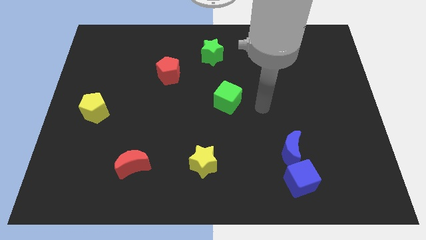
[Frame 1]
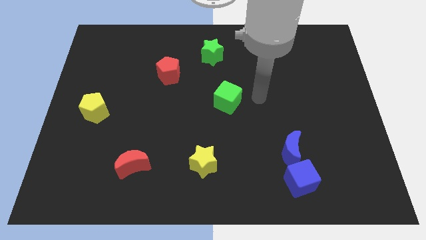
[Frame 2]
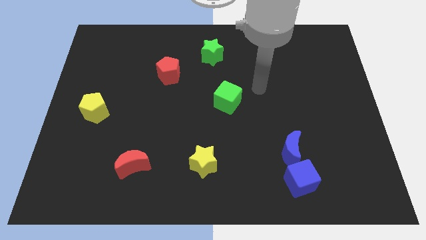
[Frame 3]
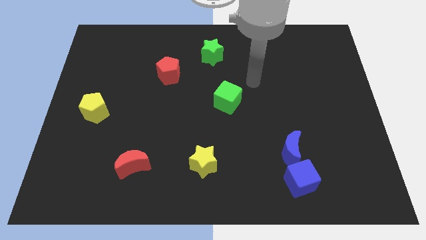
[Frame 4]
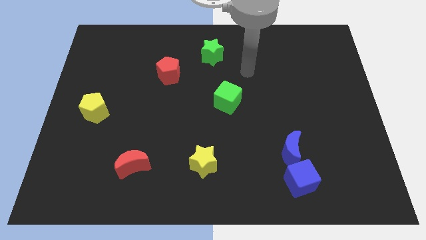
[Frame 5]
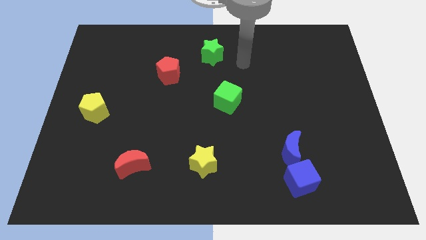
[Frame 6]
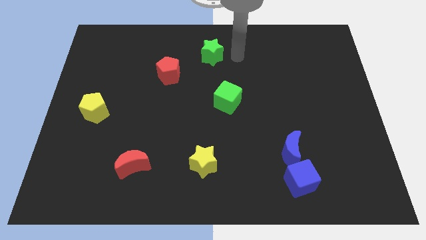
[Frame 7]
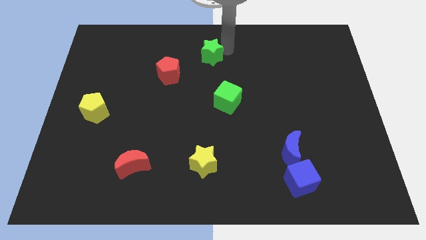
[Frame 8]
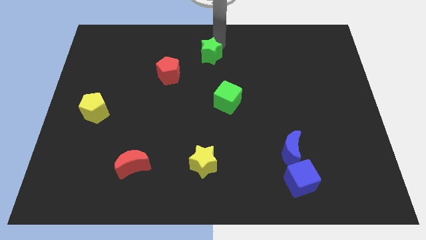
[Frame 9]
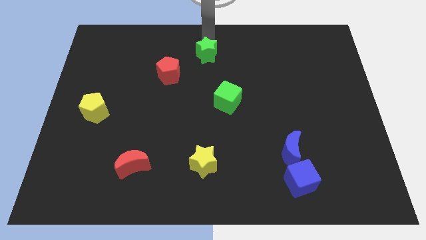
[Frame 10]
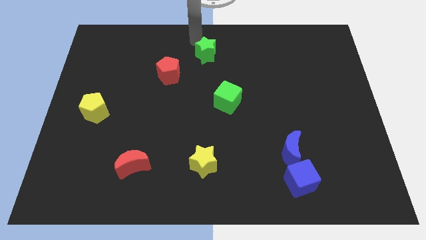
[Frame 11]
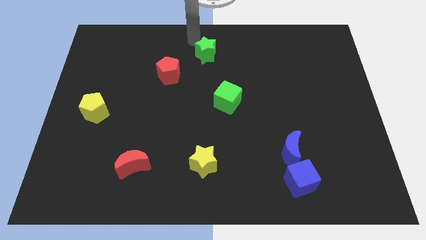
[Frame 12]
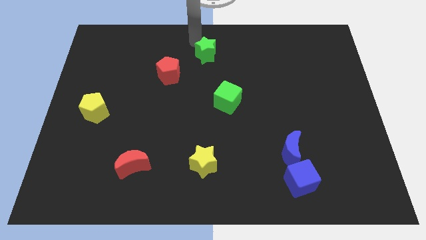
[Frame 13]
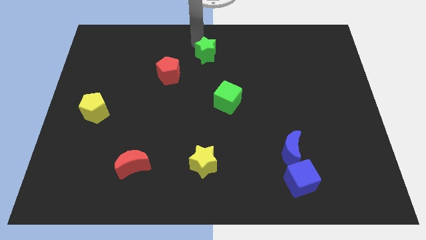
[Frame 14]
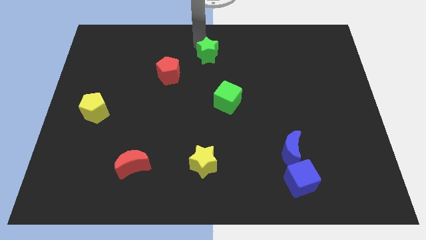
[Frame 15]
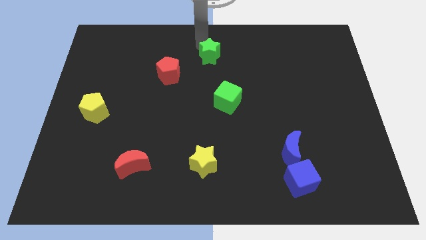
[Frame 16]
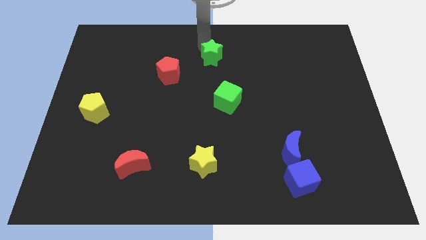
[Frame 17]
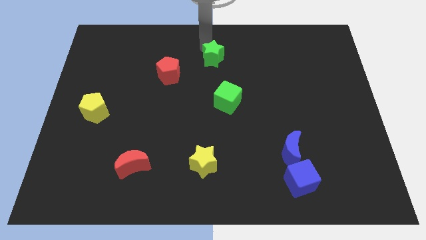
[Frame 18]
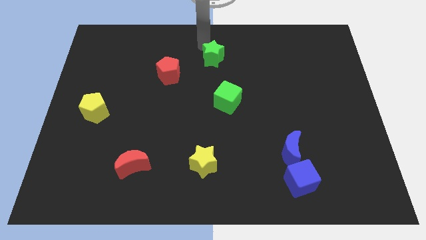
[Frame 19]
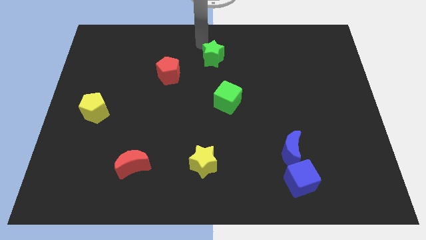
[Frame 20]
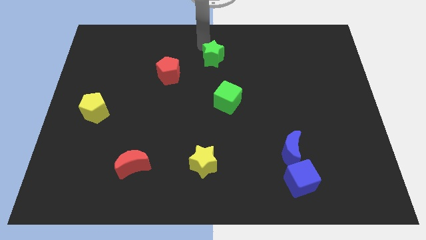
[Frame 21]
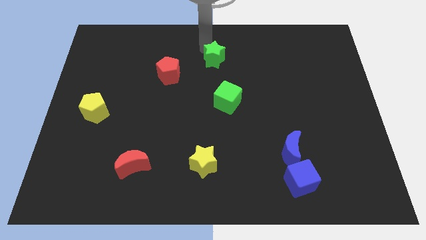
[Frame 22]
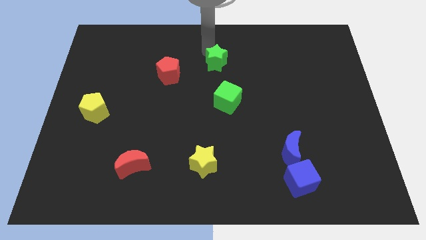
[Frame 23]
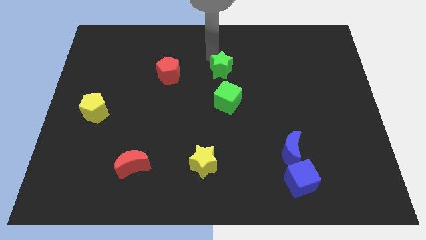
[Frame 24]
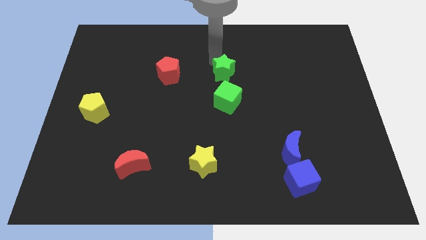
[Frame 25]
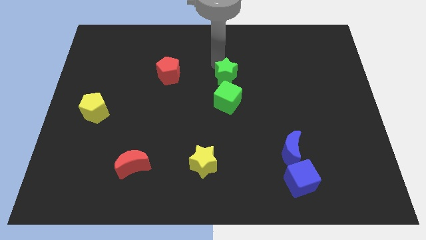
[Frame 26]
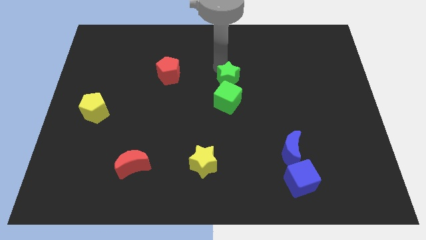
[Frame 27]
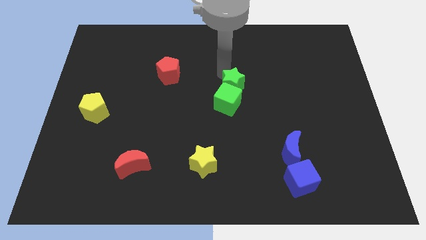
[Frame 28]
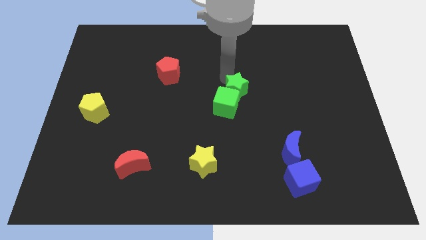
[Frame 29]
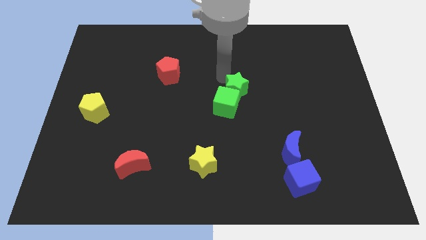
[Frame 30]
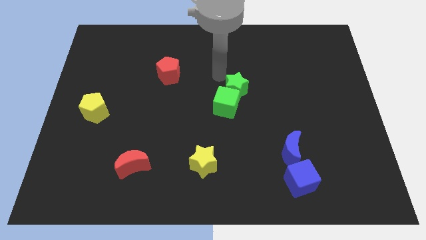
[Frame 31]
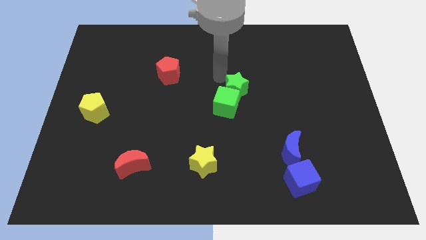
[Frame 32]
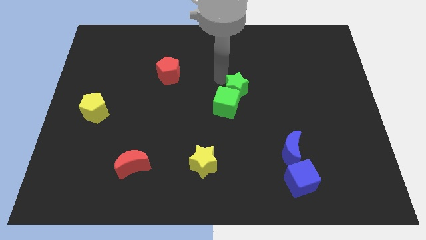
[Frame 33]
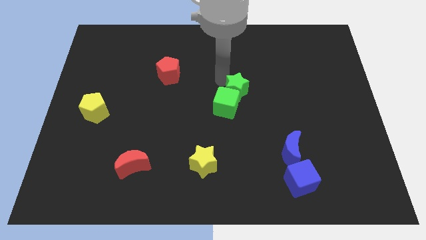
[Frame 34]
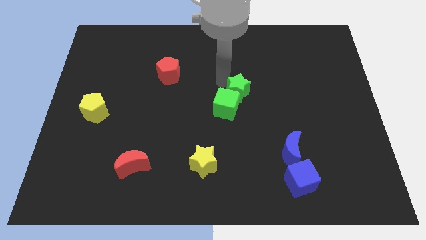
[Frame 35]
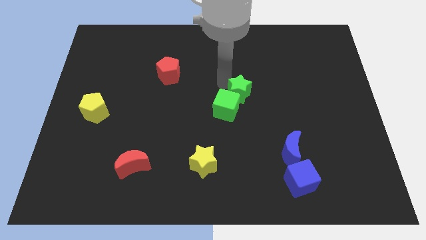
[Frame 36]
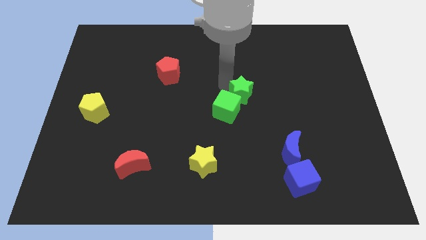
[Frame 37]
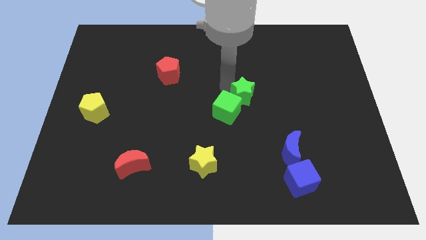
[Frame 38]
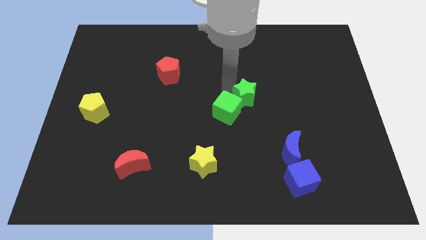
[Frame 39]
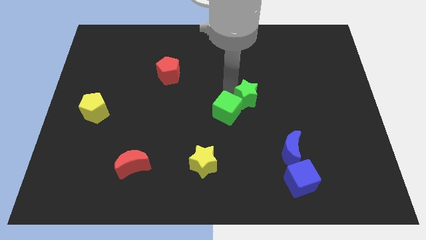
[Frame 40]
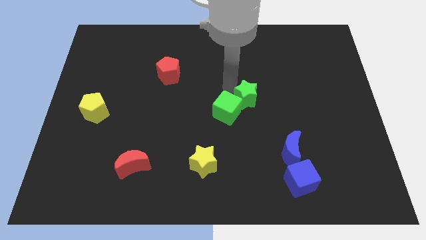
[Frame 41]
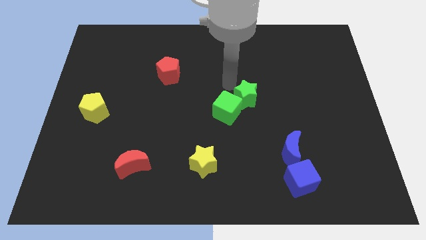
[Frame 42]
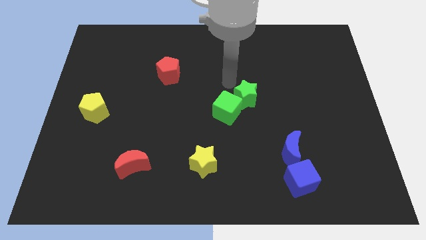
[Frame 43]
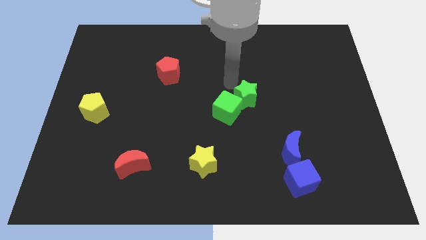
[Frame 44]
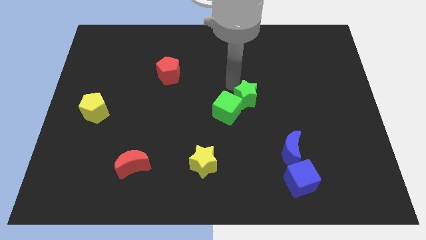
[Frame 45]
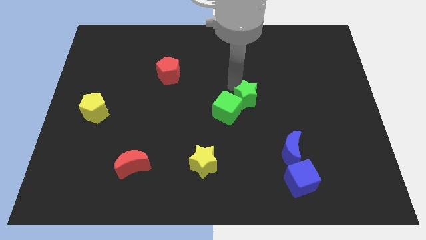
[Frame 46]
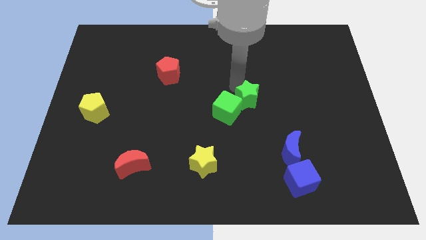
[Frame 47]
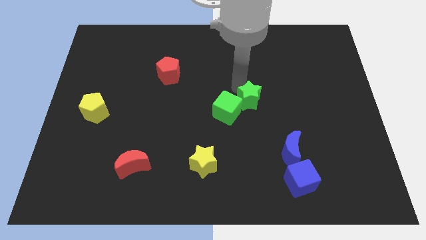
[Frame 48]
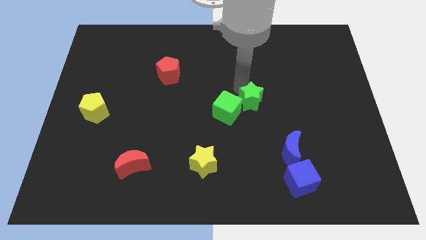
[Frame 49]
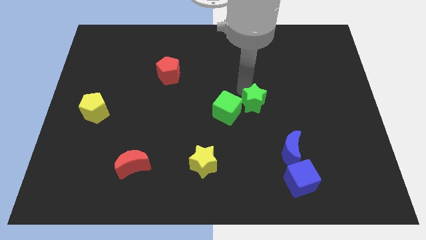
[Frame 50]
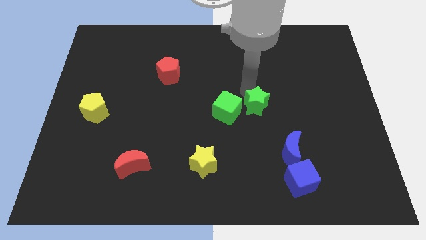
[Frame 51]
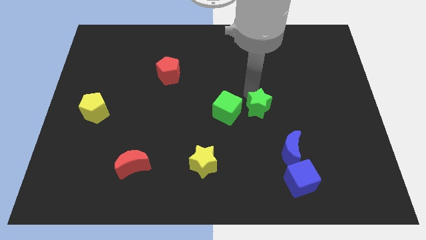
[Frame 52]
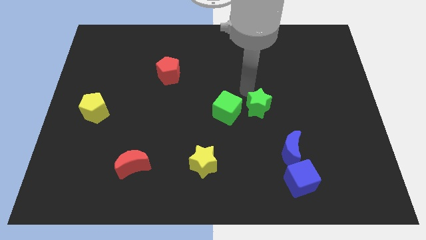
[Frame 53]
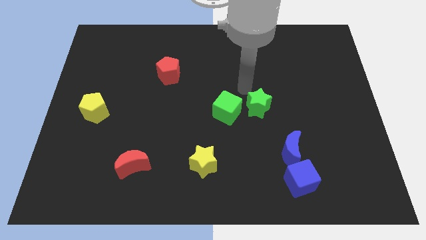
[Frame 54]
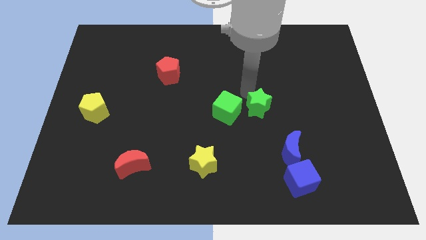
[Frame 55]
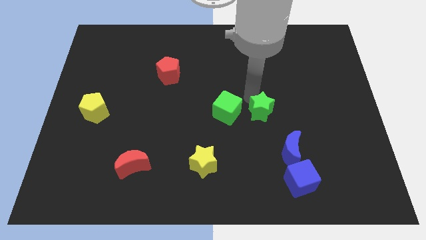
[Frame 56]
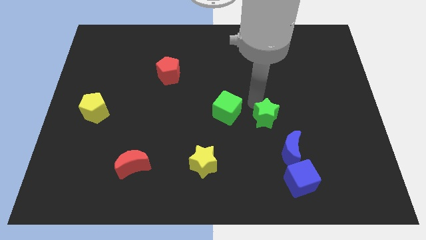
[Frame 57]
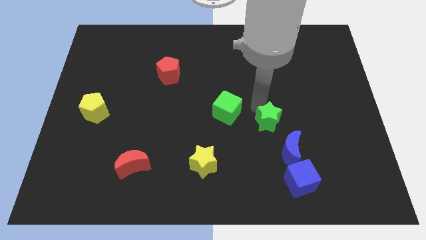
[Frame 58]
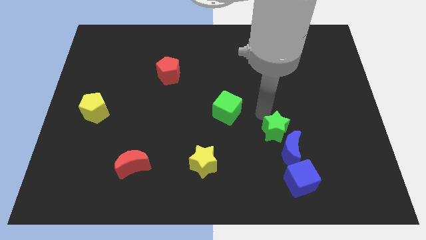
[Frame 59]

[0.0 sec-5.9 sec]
move the green star to the blue moon

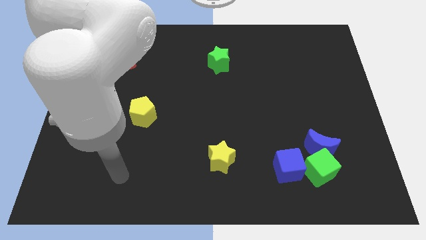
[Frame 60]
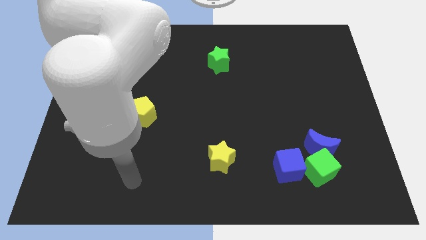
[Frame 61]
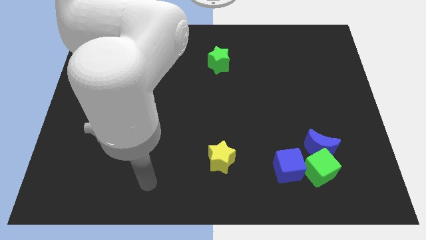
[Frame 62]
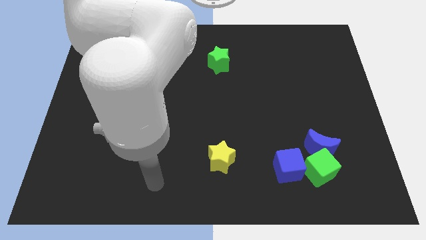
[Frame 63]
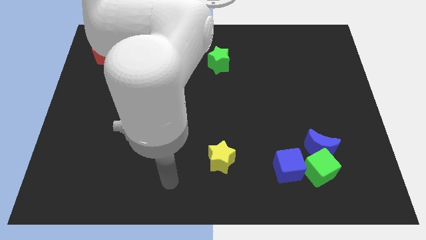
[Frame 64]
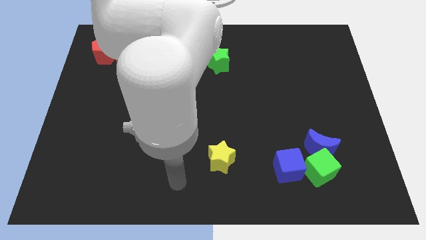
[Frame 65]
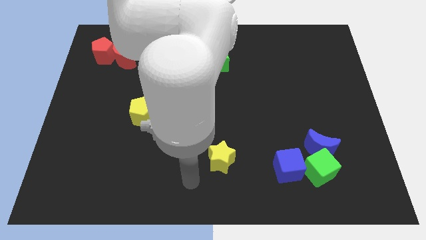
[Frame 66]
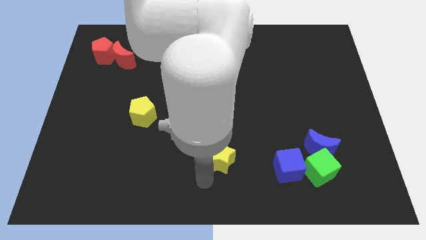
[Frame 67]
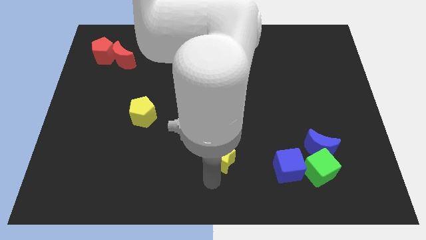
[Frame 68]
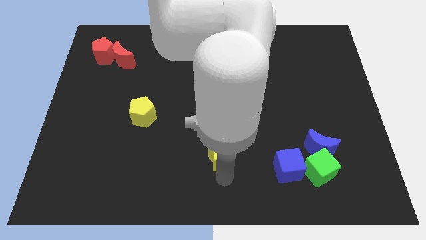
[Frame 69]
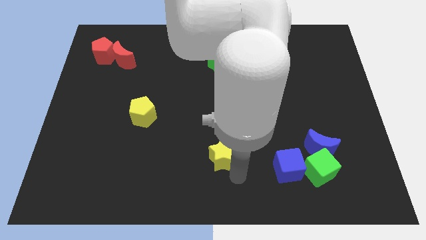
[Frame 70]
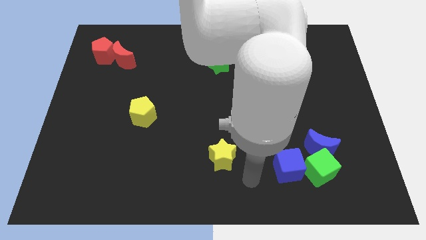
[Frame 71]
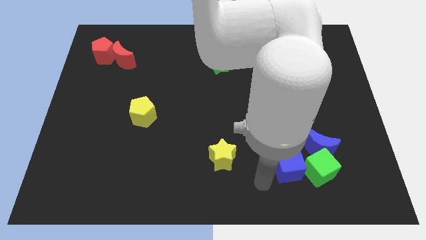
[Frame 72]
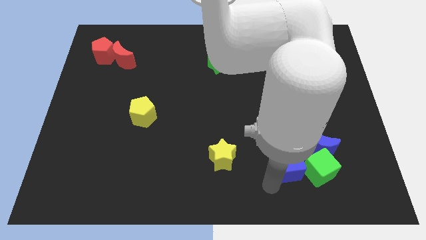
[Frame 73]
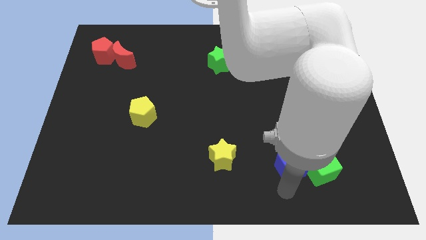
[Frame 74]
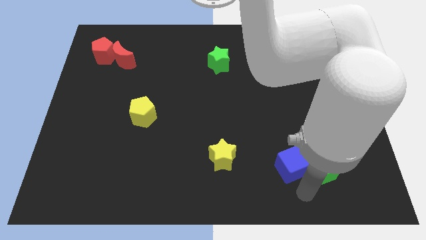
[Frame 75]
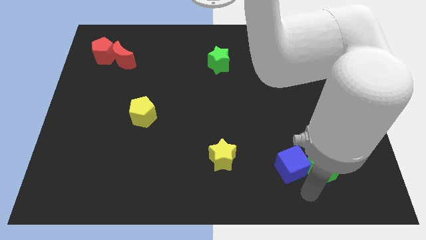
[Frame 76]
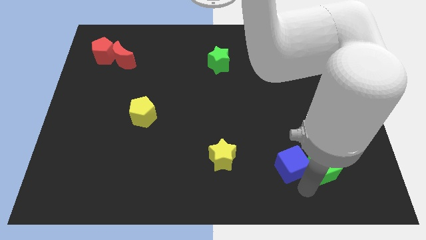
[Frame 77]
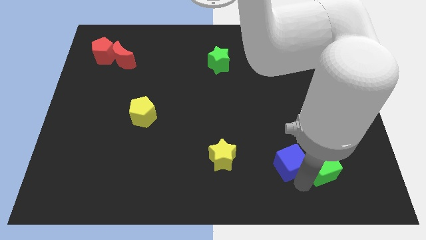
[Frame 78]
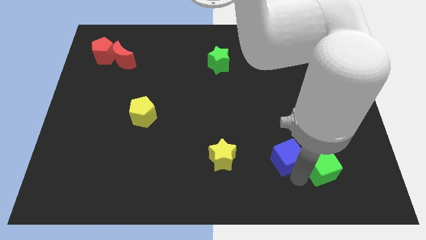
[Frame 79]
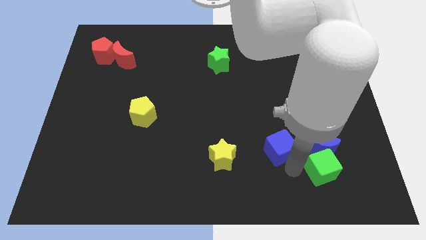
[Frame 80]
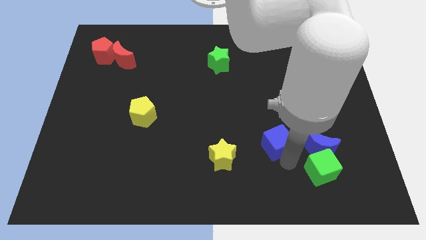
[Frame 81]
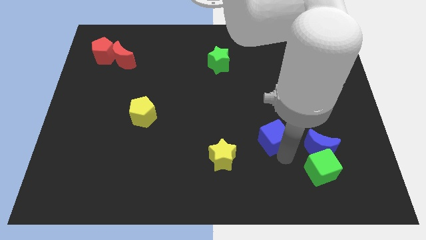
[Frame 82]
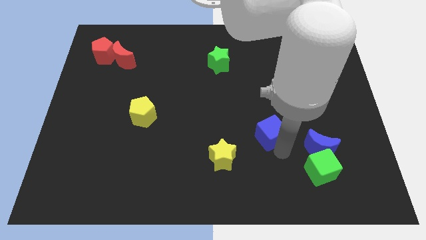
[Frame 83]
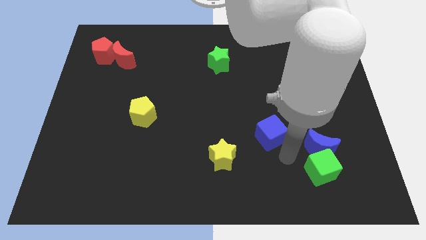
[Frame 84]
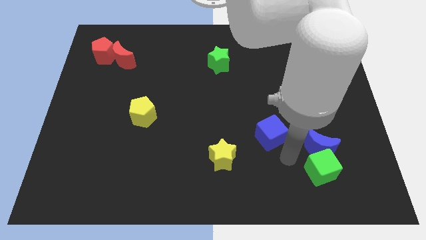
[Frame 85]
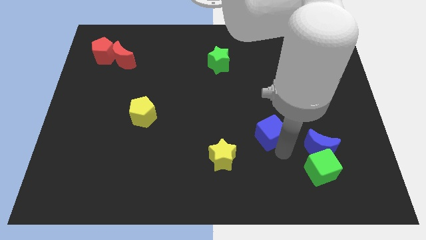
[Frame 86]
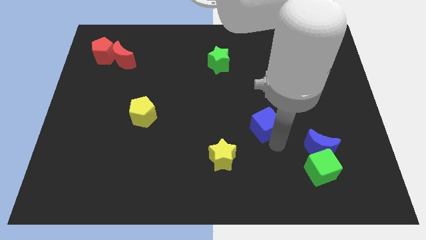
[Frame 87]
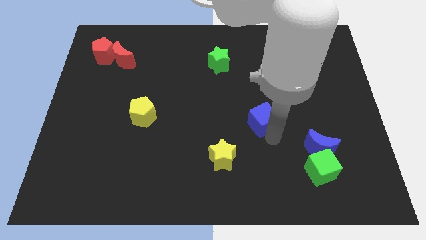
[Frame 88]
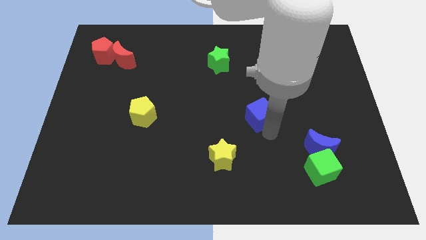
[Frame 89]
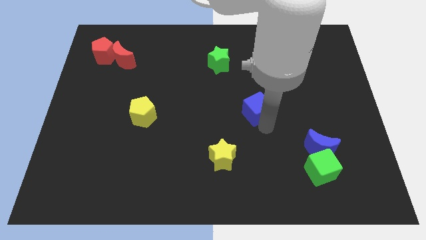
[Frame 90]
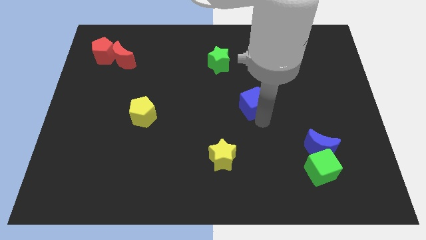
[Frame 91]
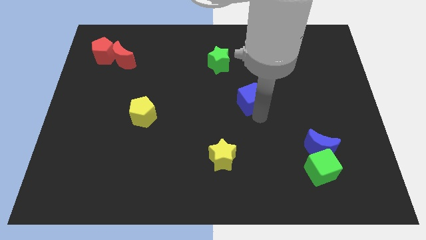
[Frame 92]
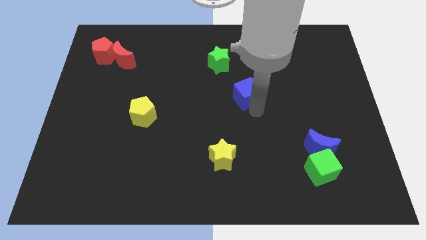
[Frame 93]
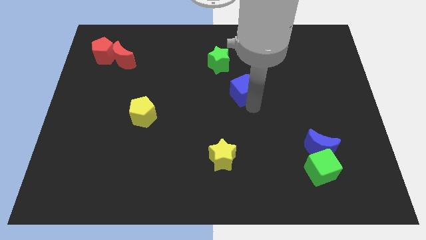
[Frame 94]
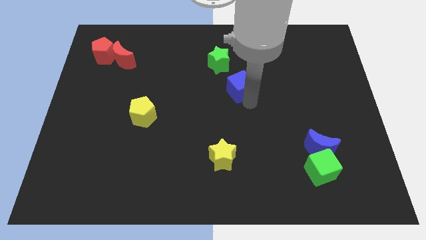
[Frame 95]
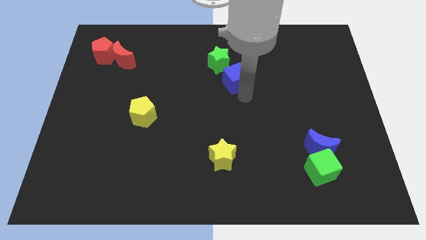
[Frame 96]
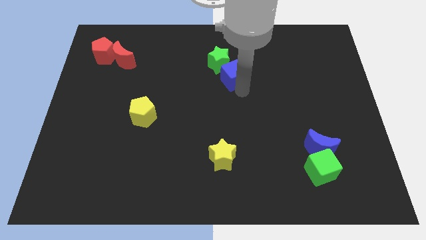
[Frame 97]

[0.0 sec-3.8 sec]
slide the blue cube towards the green star
